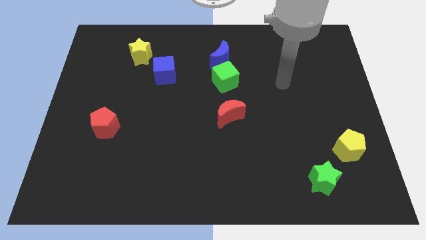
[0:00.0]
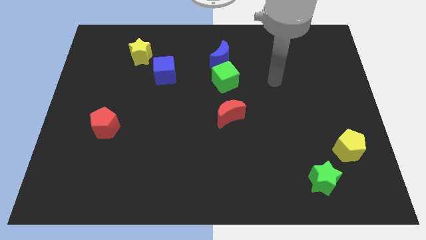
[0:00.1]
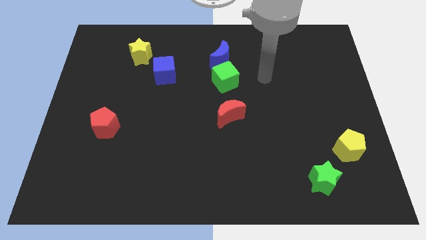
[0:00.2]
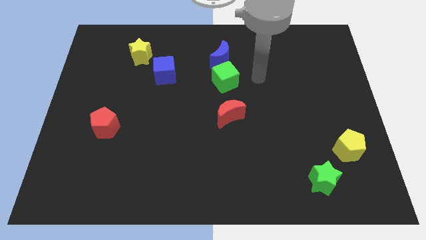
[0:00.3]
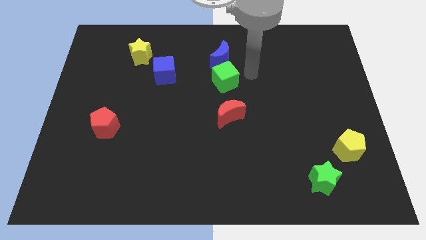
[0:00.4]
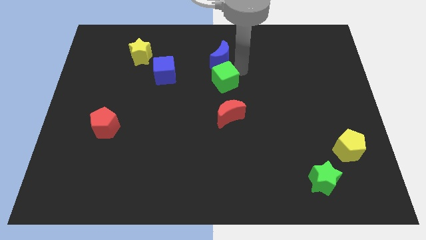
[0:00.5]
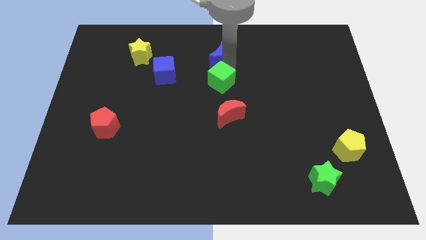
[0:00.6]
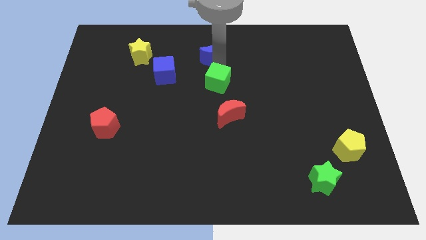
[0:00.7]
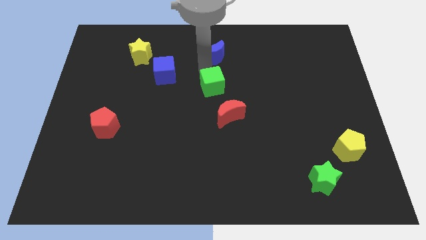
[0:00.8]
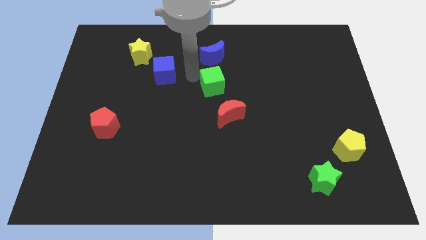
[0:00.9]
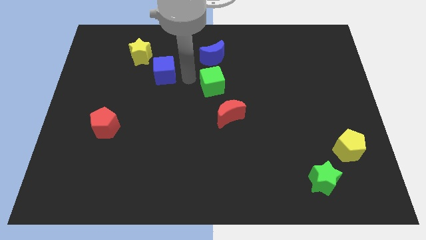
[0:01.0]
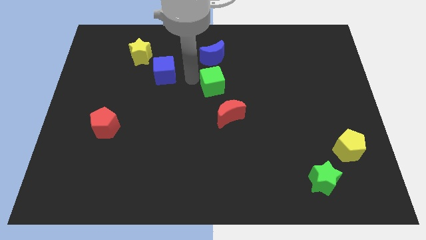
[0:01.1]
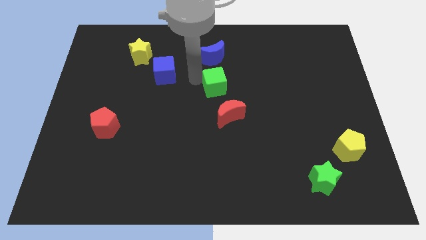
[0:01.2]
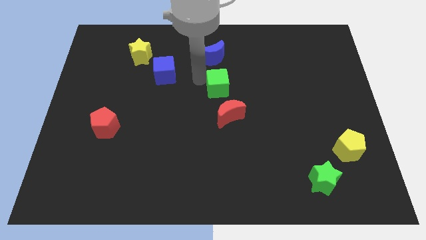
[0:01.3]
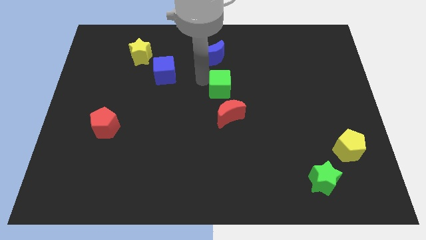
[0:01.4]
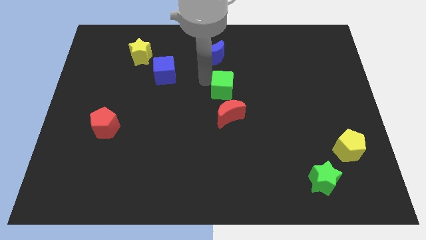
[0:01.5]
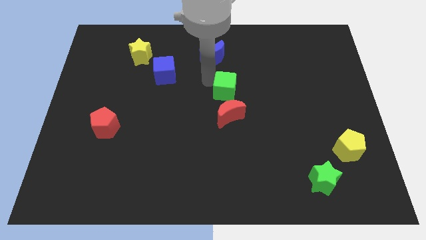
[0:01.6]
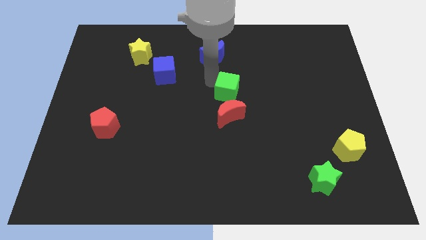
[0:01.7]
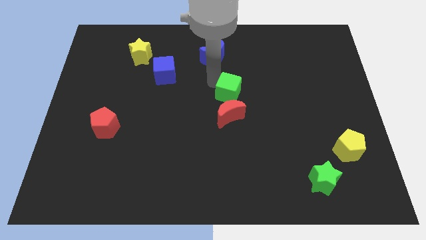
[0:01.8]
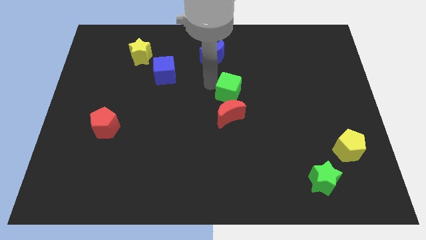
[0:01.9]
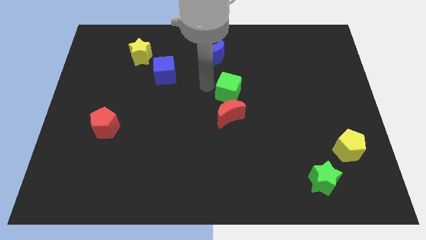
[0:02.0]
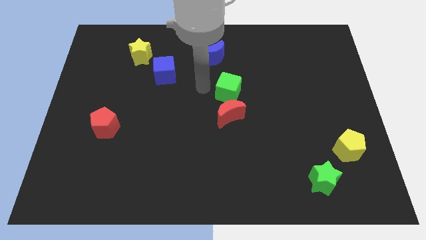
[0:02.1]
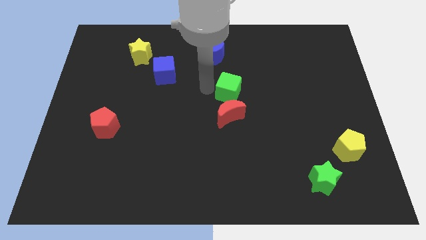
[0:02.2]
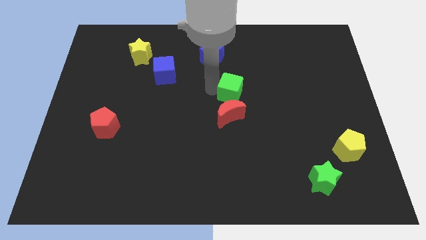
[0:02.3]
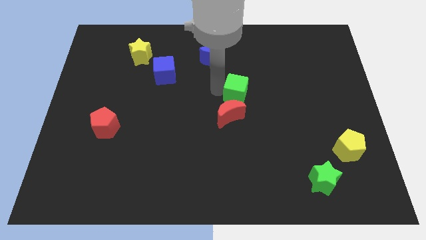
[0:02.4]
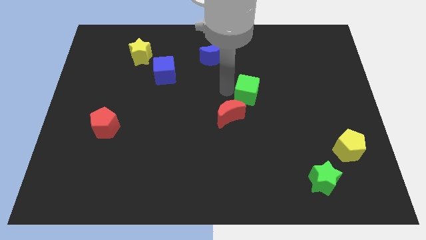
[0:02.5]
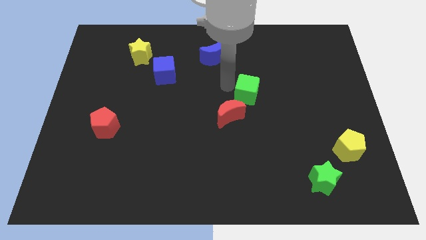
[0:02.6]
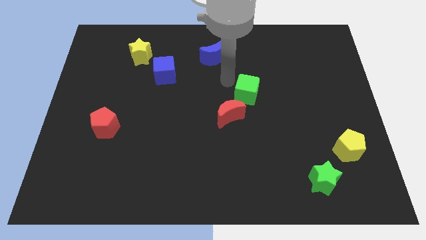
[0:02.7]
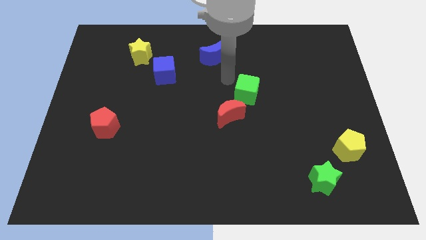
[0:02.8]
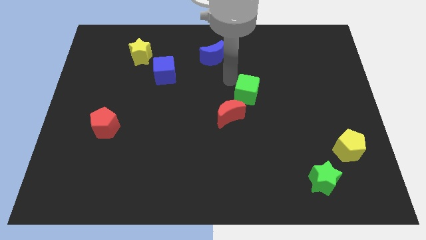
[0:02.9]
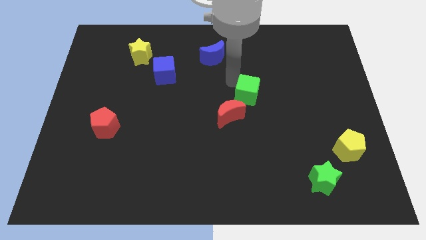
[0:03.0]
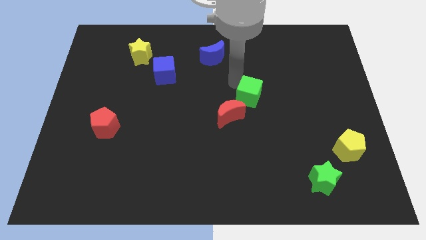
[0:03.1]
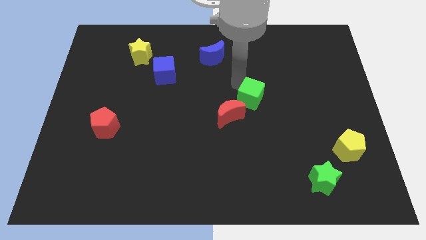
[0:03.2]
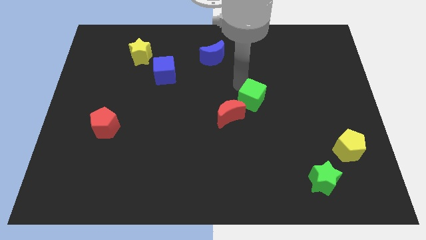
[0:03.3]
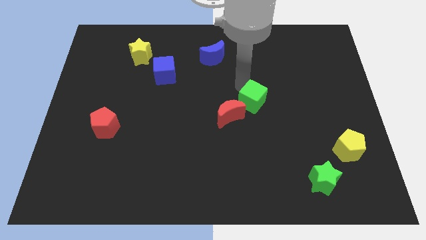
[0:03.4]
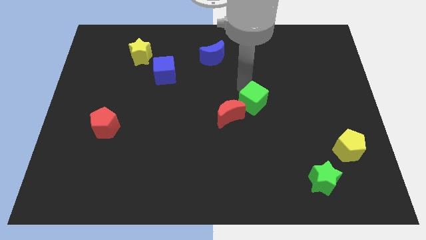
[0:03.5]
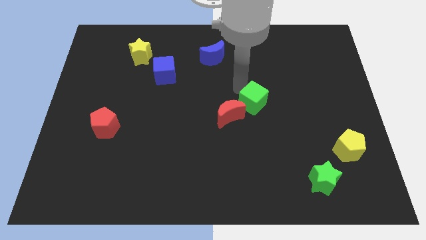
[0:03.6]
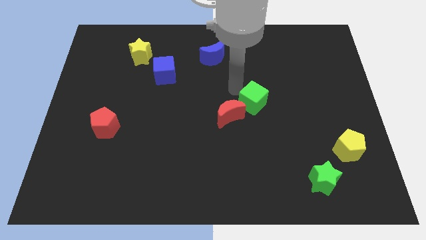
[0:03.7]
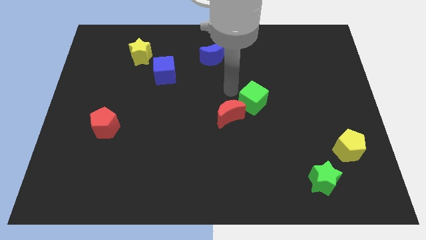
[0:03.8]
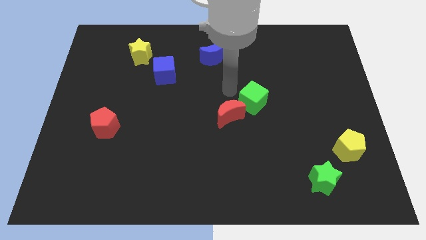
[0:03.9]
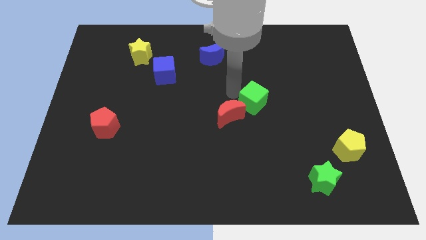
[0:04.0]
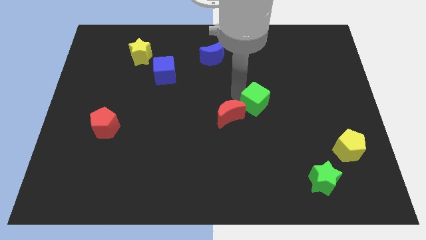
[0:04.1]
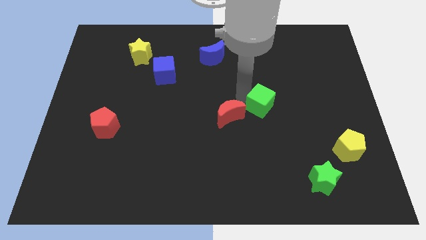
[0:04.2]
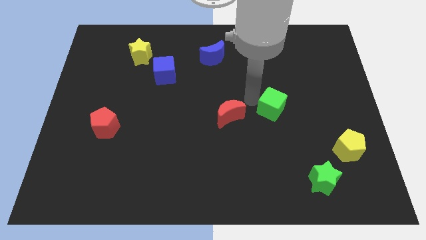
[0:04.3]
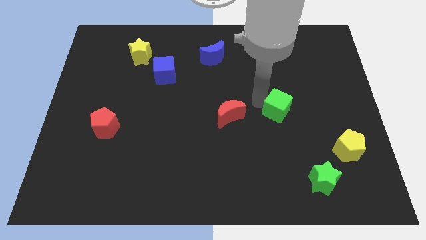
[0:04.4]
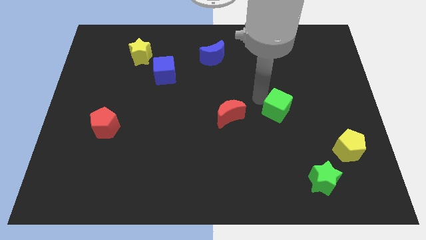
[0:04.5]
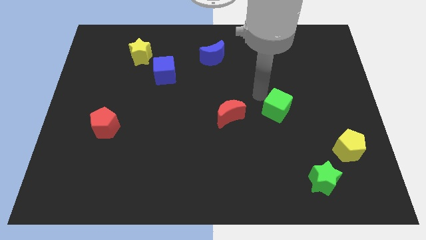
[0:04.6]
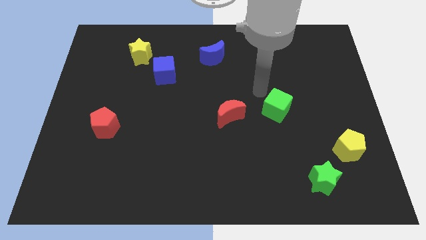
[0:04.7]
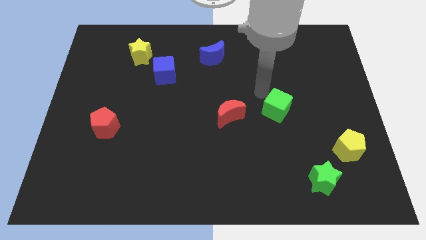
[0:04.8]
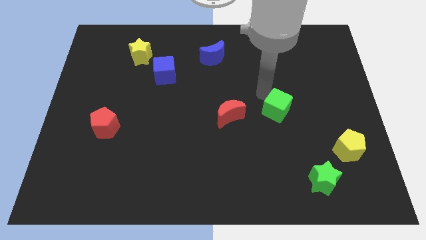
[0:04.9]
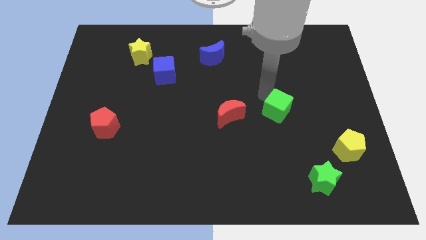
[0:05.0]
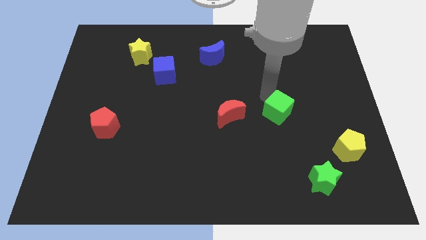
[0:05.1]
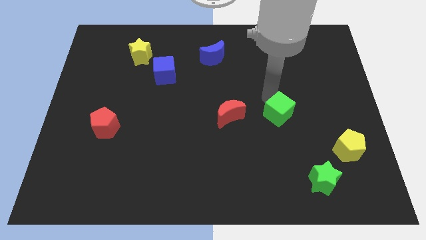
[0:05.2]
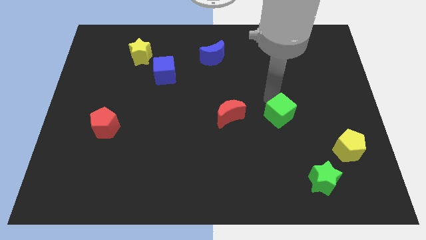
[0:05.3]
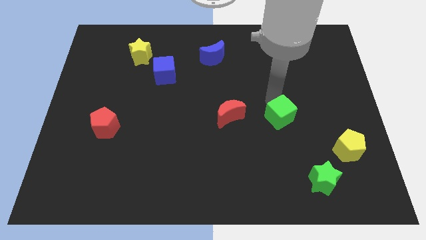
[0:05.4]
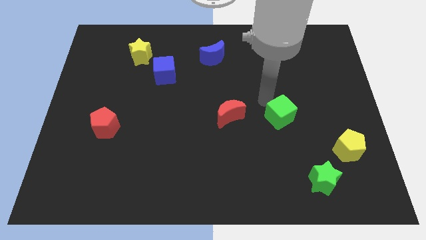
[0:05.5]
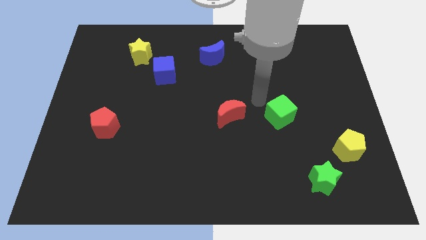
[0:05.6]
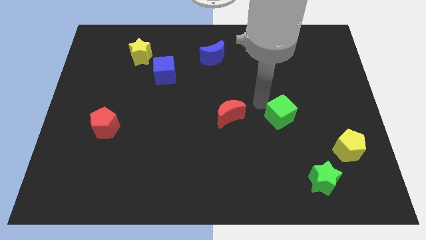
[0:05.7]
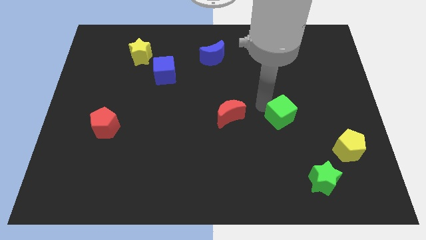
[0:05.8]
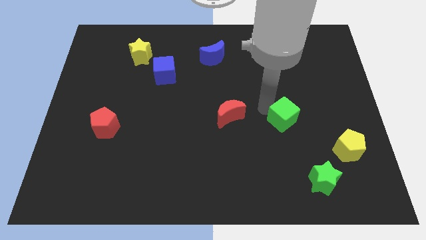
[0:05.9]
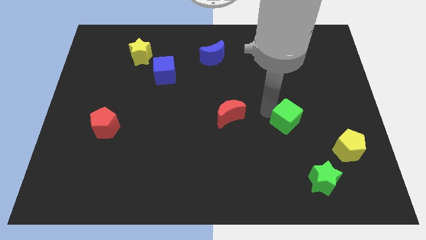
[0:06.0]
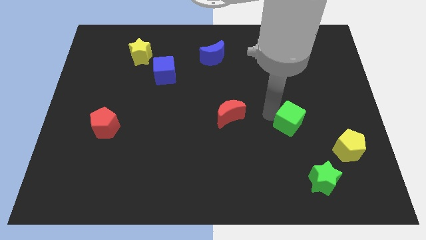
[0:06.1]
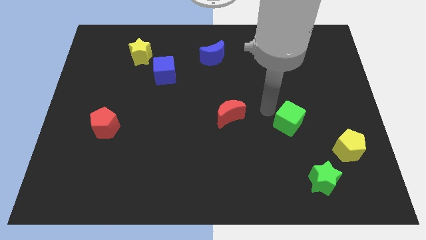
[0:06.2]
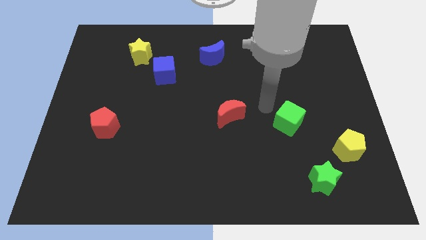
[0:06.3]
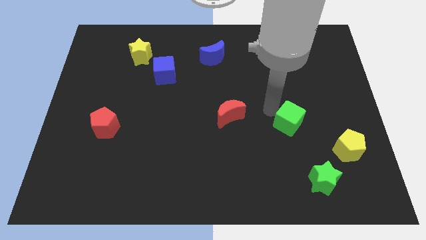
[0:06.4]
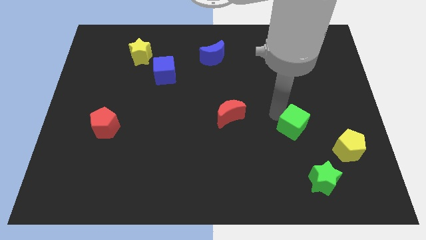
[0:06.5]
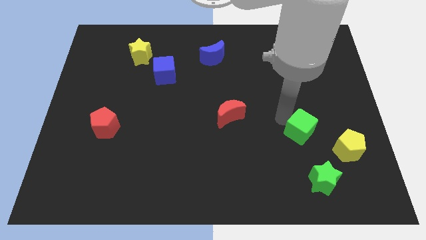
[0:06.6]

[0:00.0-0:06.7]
put the green cube to the top side of the green star

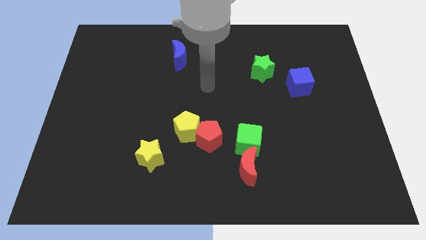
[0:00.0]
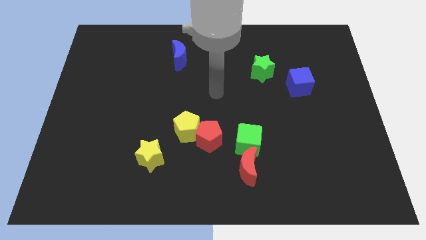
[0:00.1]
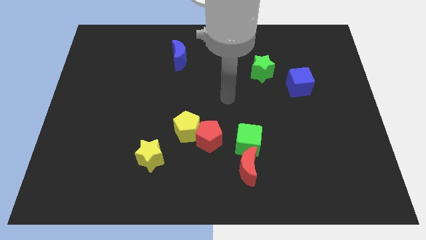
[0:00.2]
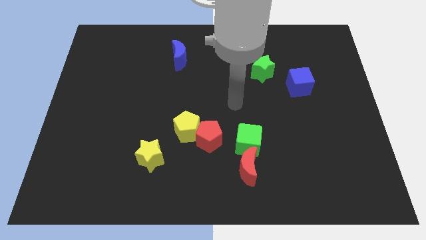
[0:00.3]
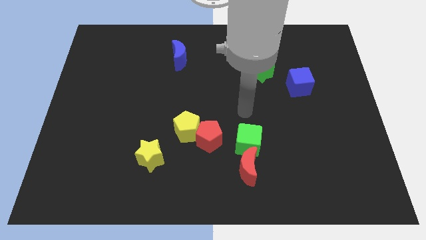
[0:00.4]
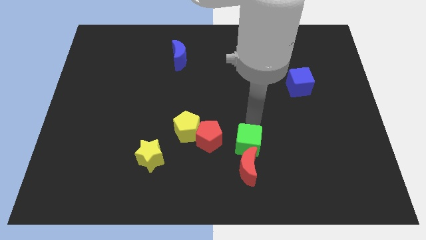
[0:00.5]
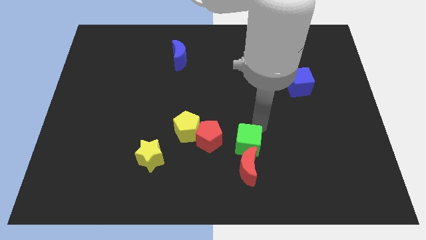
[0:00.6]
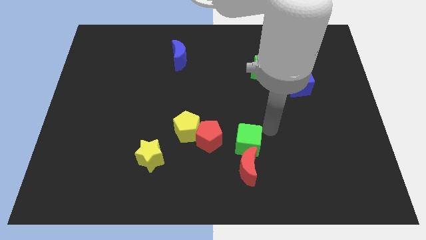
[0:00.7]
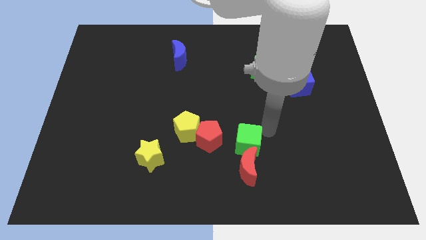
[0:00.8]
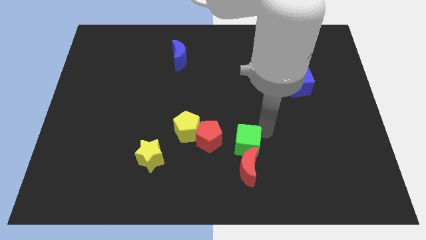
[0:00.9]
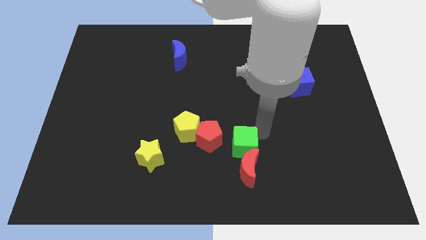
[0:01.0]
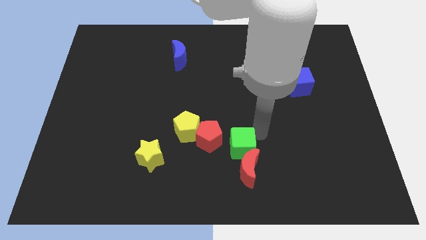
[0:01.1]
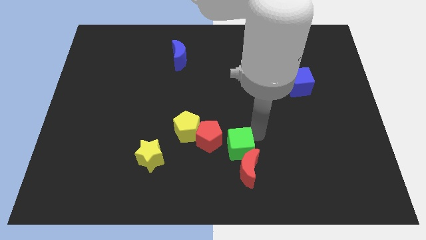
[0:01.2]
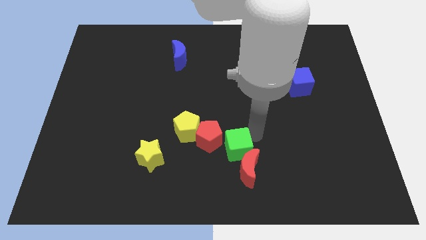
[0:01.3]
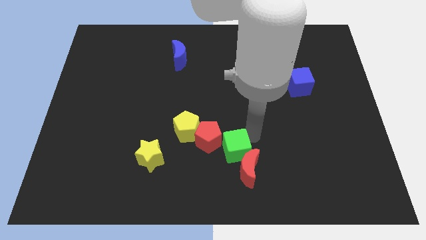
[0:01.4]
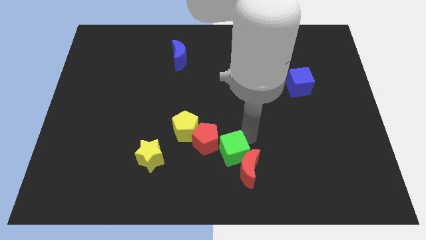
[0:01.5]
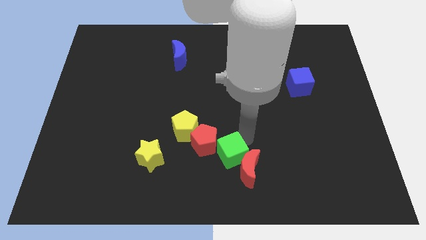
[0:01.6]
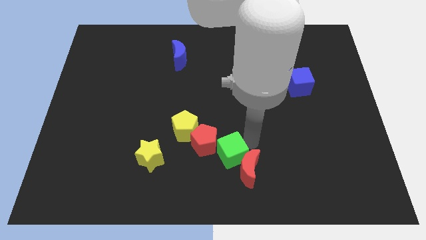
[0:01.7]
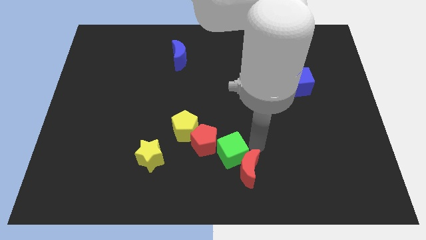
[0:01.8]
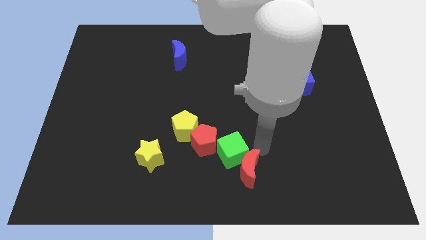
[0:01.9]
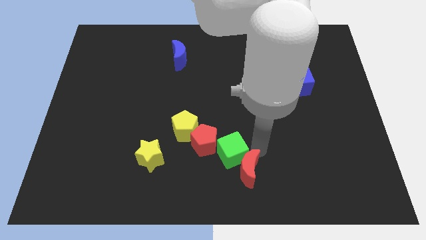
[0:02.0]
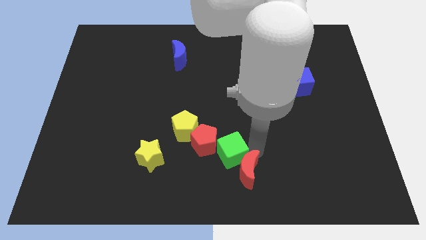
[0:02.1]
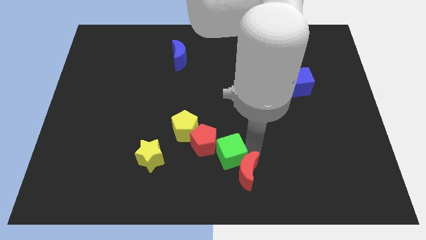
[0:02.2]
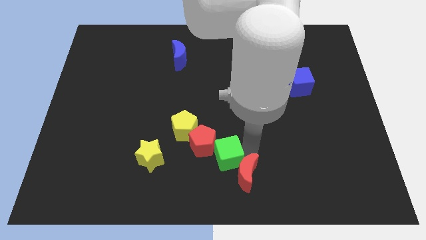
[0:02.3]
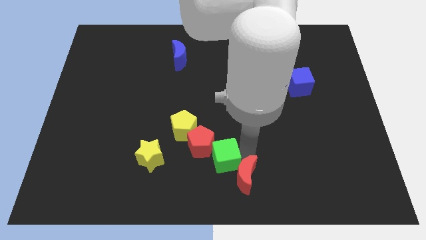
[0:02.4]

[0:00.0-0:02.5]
put the green cube to the right side of the yellow star
